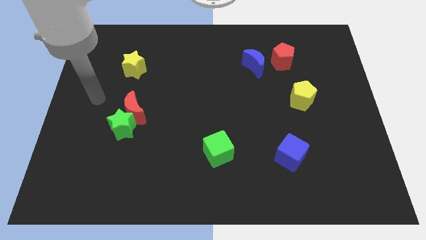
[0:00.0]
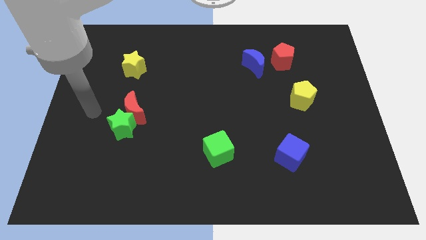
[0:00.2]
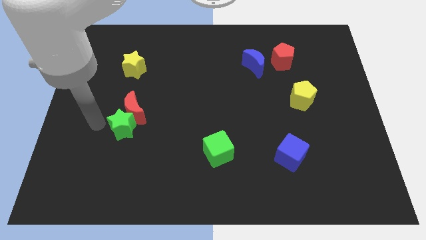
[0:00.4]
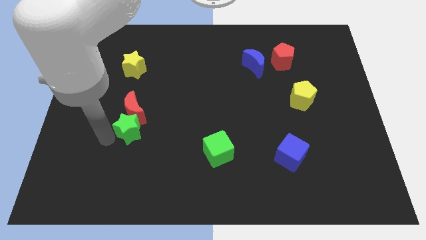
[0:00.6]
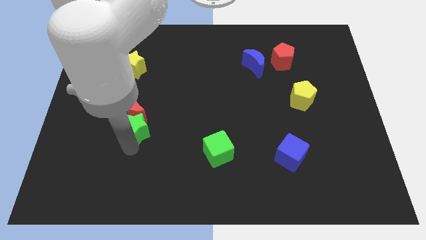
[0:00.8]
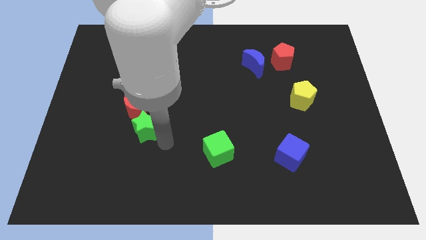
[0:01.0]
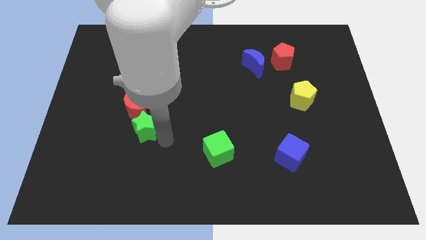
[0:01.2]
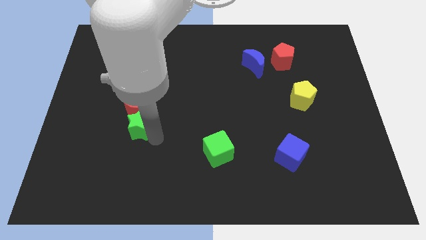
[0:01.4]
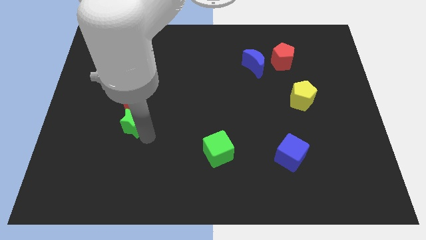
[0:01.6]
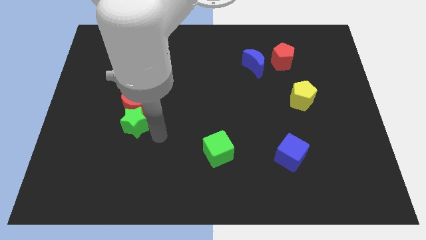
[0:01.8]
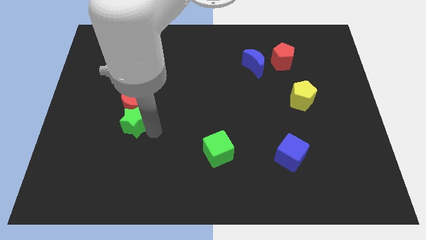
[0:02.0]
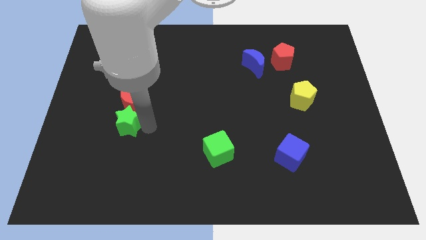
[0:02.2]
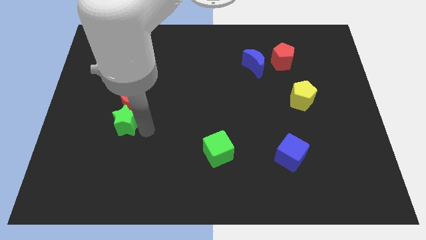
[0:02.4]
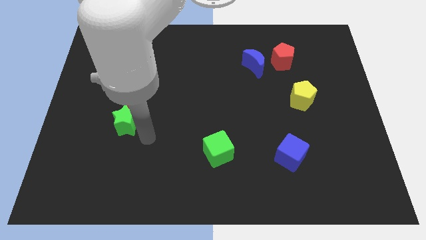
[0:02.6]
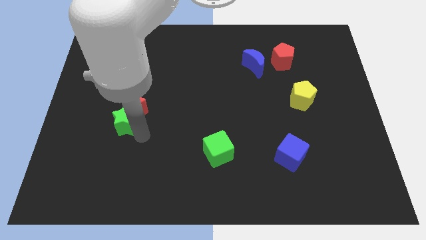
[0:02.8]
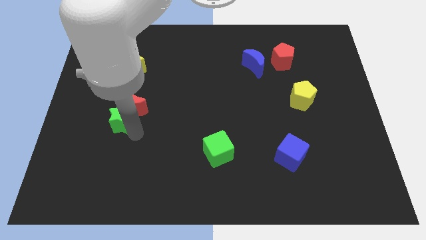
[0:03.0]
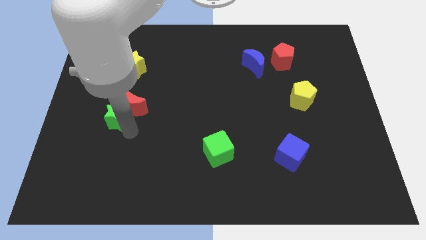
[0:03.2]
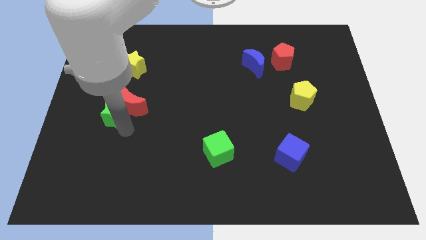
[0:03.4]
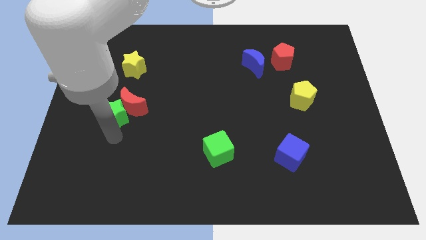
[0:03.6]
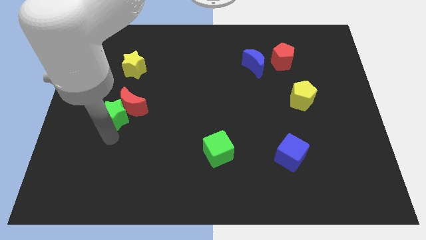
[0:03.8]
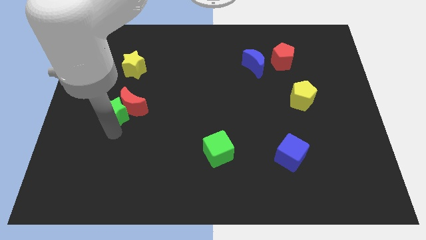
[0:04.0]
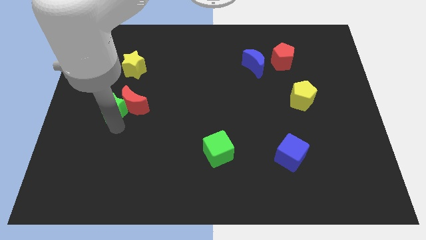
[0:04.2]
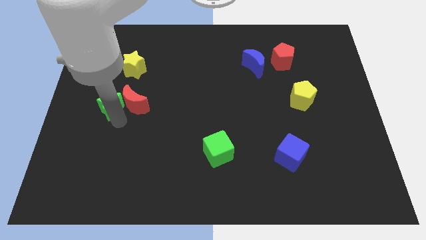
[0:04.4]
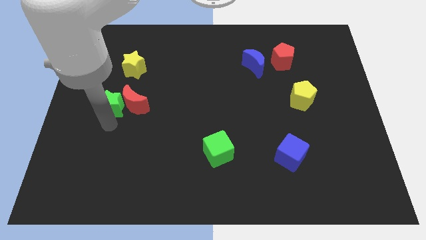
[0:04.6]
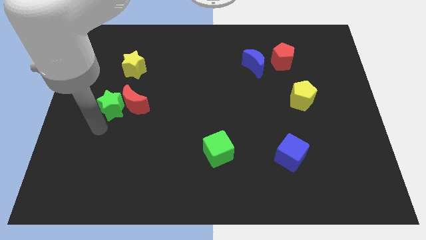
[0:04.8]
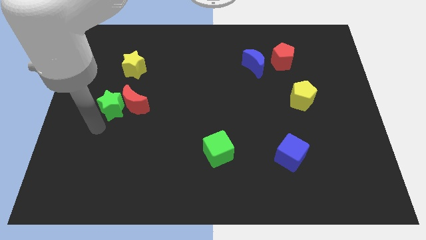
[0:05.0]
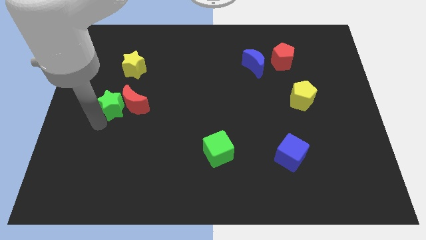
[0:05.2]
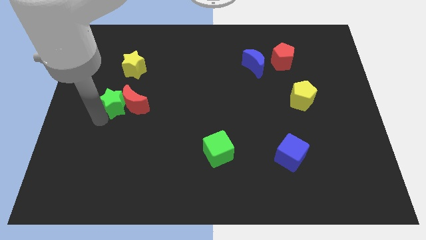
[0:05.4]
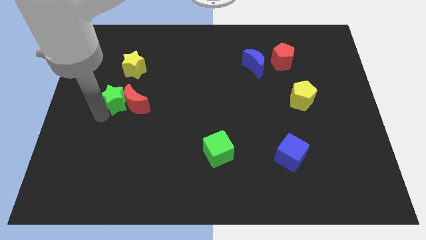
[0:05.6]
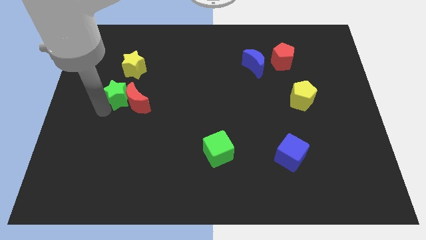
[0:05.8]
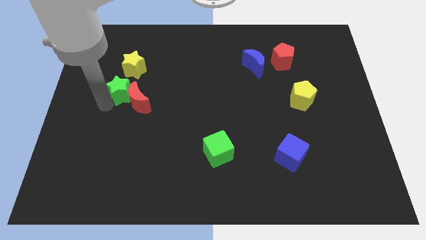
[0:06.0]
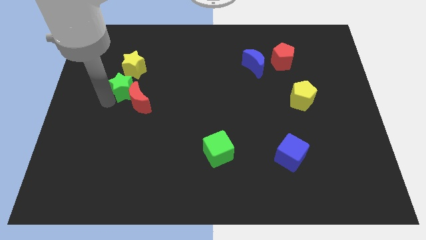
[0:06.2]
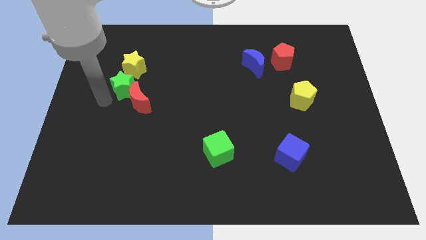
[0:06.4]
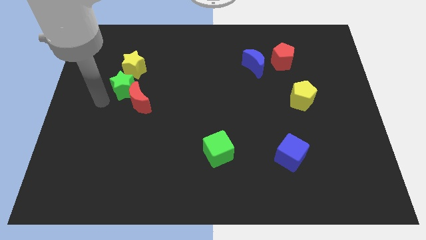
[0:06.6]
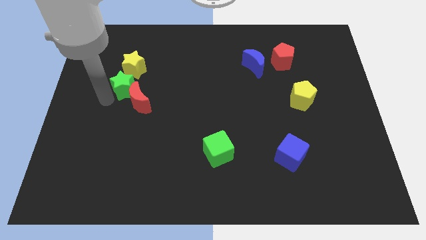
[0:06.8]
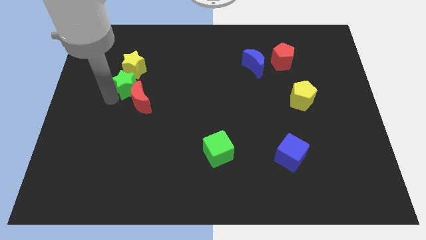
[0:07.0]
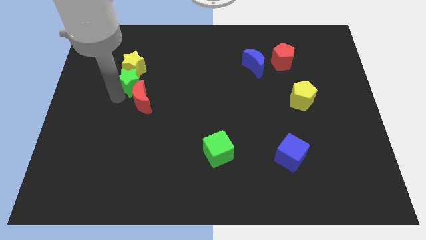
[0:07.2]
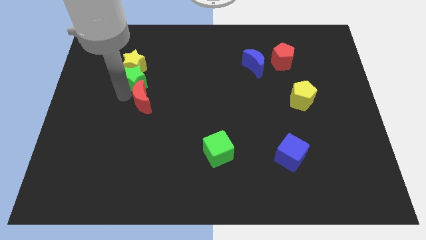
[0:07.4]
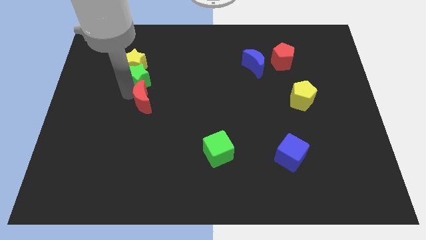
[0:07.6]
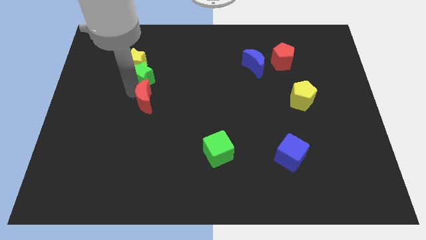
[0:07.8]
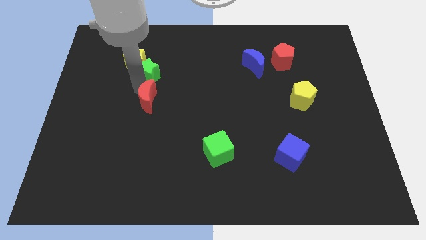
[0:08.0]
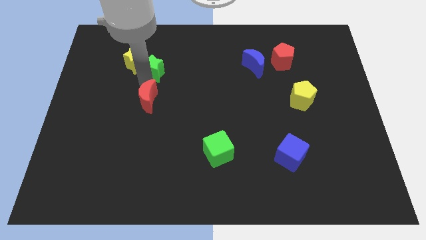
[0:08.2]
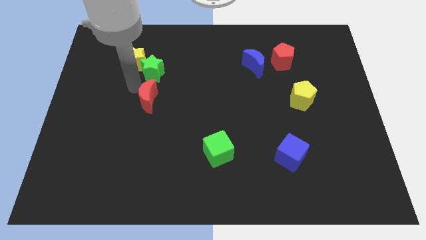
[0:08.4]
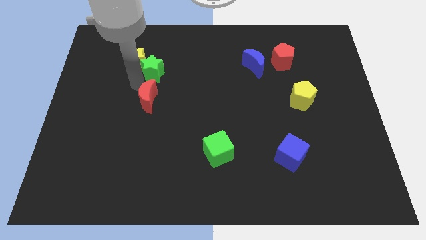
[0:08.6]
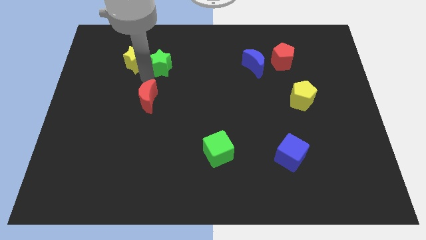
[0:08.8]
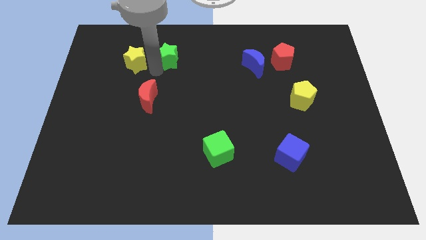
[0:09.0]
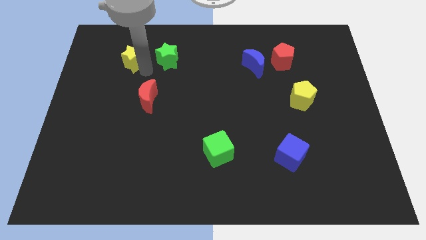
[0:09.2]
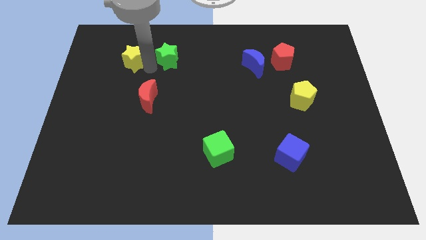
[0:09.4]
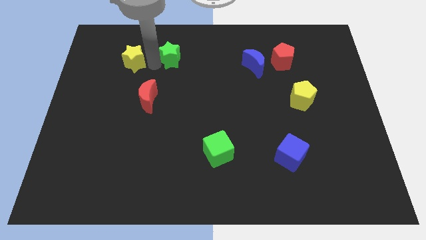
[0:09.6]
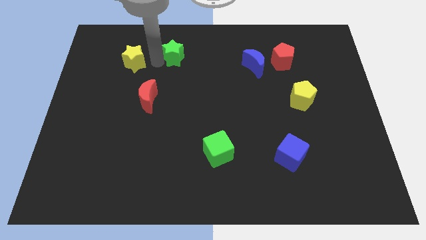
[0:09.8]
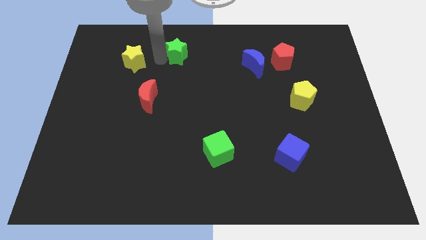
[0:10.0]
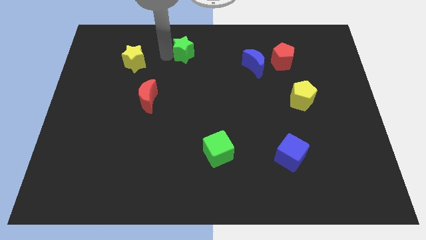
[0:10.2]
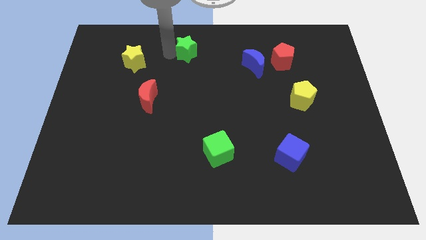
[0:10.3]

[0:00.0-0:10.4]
slide the green star to the towards your base

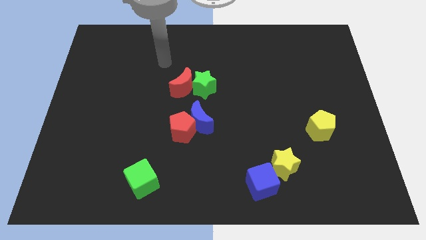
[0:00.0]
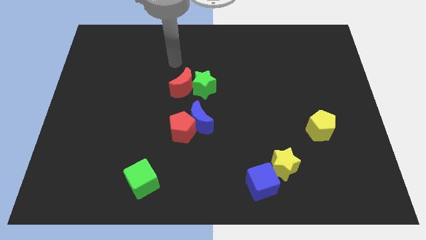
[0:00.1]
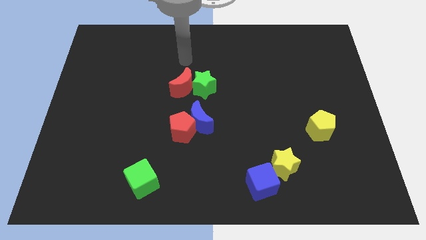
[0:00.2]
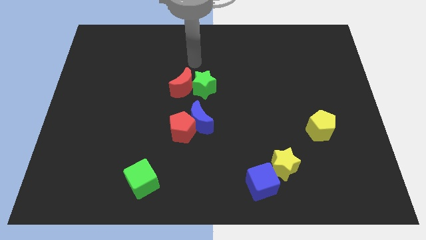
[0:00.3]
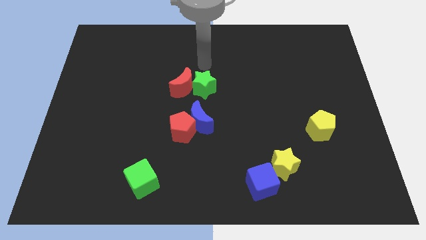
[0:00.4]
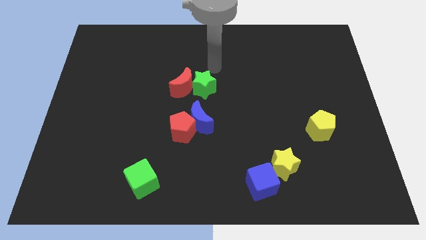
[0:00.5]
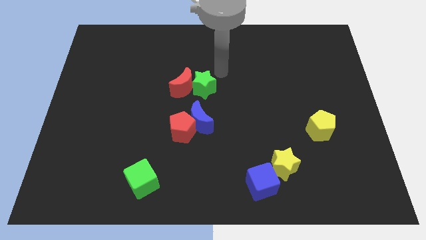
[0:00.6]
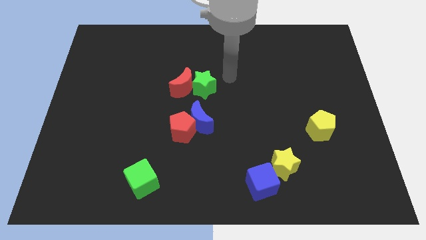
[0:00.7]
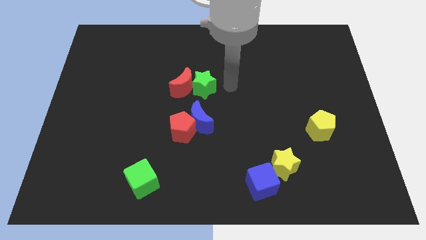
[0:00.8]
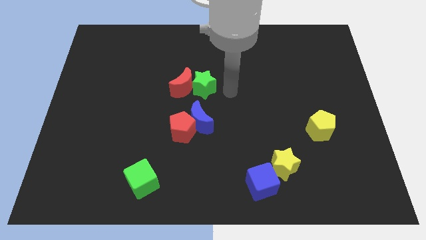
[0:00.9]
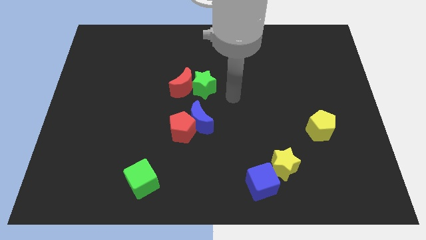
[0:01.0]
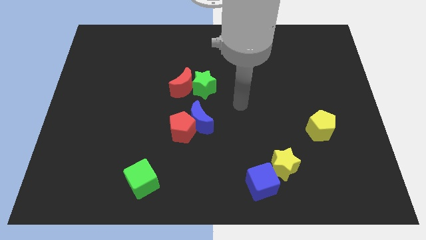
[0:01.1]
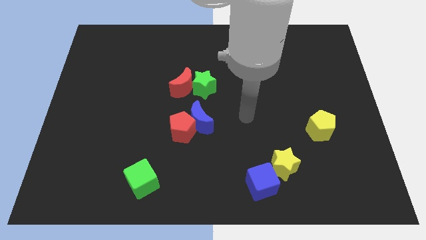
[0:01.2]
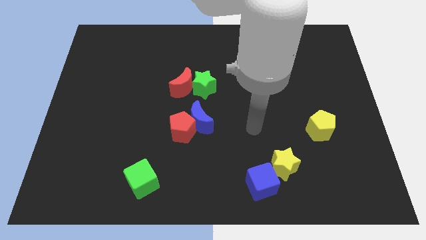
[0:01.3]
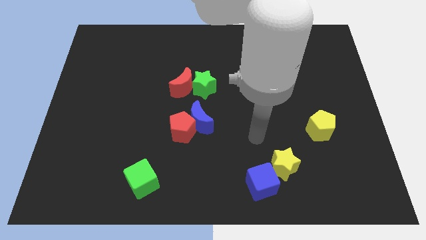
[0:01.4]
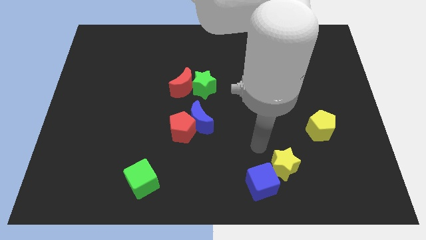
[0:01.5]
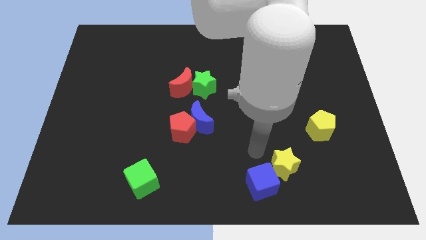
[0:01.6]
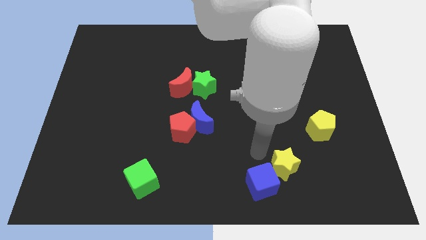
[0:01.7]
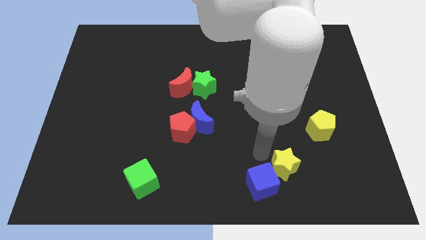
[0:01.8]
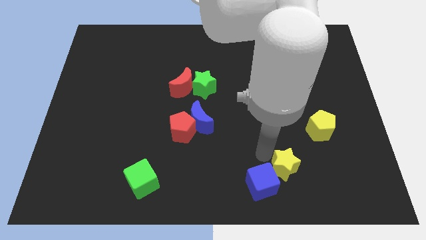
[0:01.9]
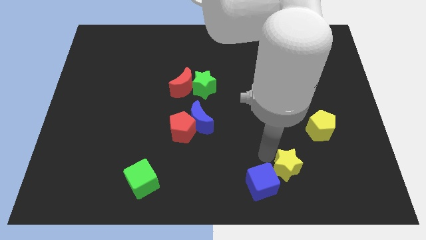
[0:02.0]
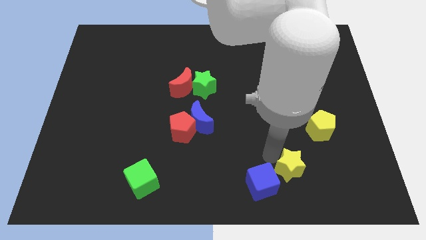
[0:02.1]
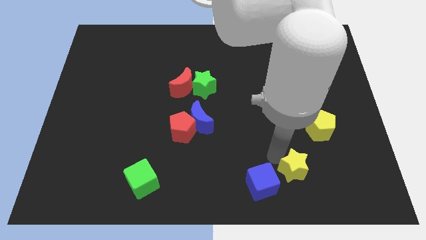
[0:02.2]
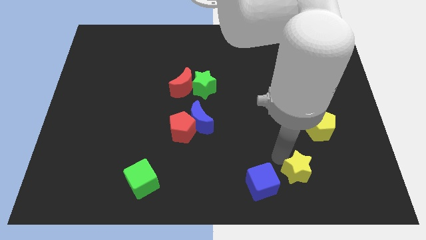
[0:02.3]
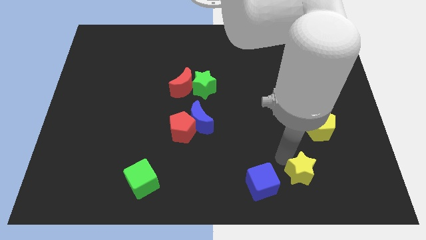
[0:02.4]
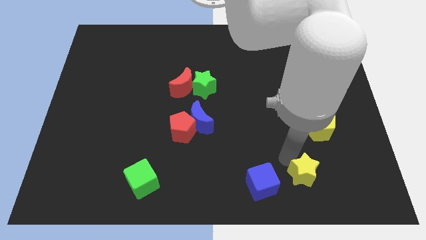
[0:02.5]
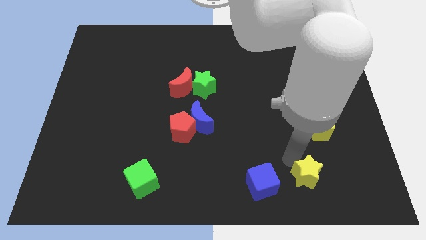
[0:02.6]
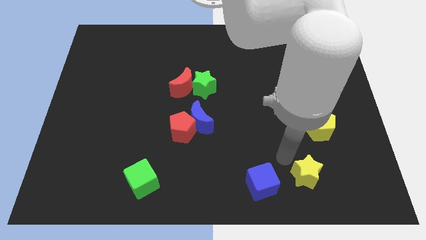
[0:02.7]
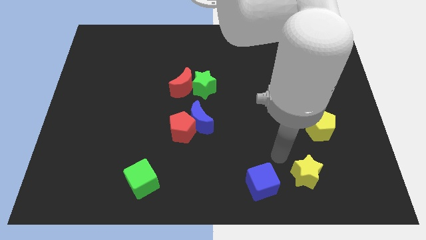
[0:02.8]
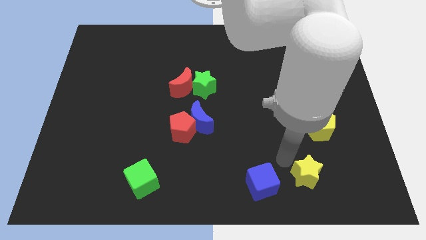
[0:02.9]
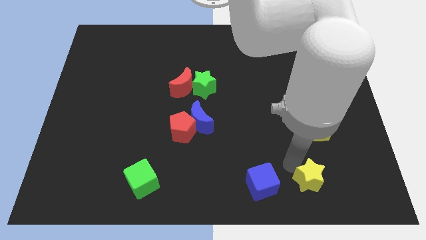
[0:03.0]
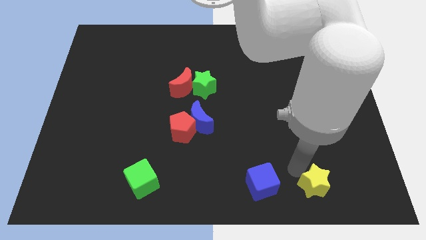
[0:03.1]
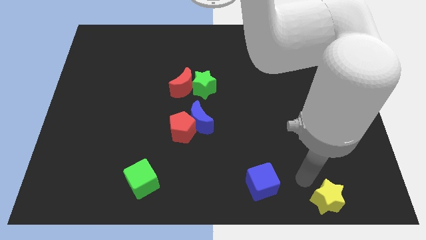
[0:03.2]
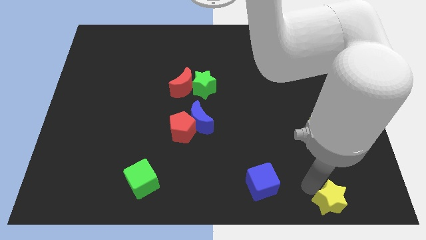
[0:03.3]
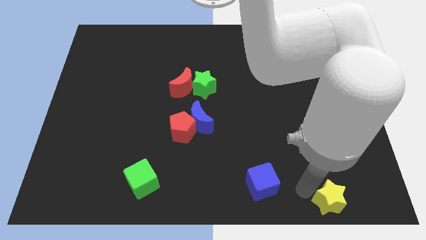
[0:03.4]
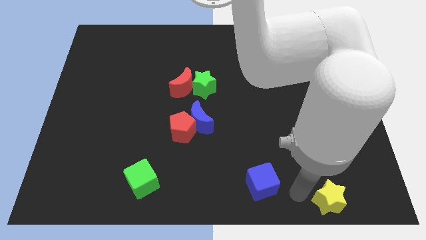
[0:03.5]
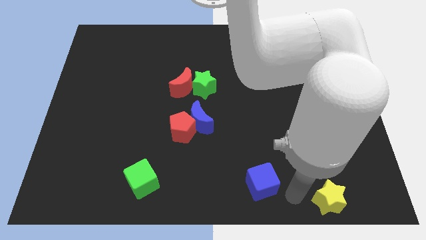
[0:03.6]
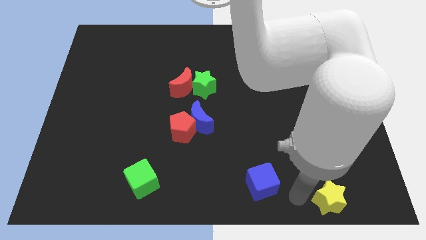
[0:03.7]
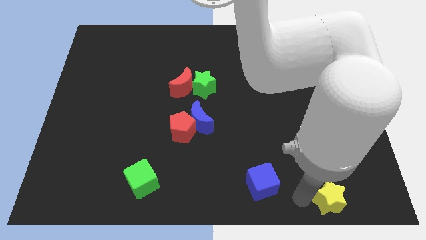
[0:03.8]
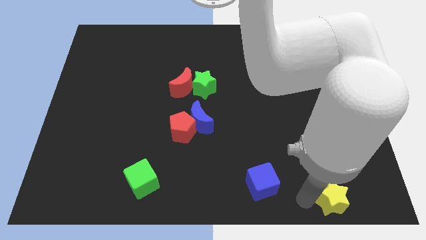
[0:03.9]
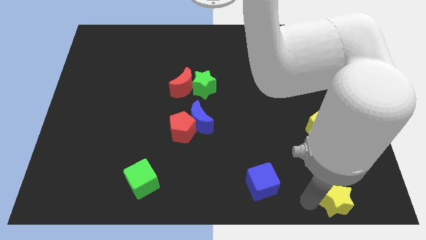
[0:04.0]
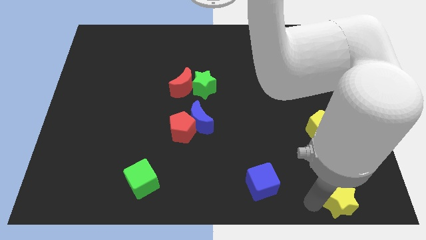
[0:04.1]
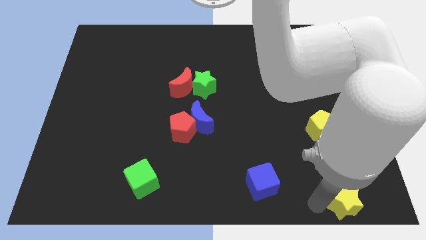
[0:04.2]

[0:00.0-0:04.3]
move the yellow star to the bottom right of the board
